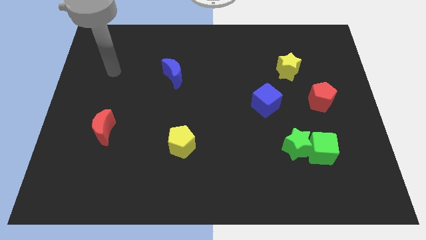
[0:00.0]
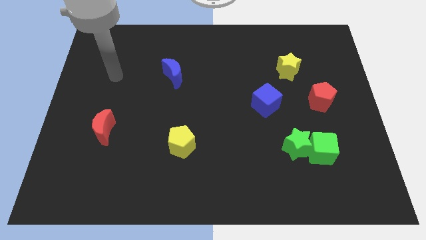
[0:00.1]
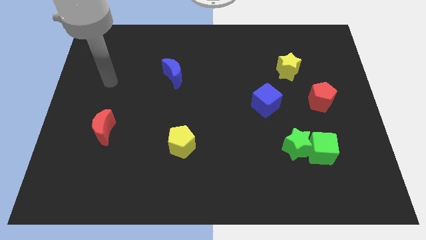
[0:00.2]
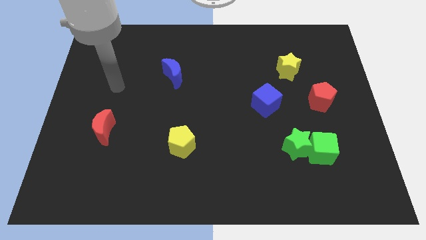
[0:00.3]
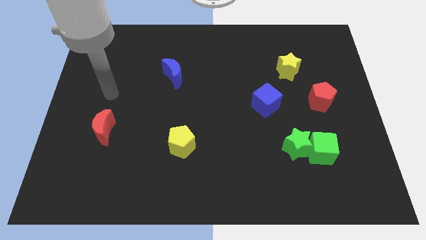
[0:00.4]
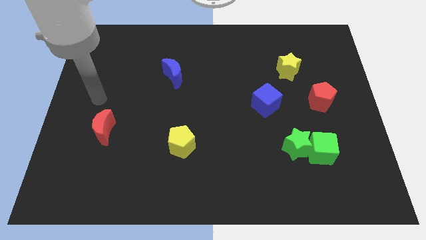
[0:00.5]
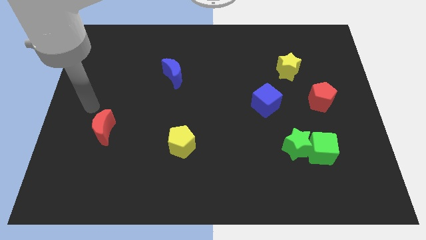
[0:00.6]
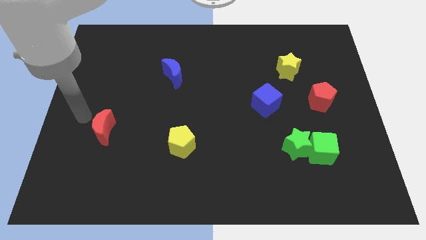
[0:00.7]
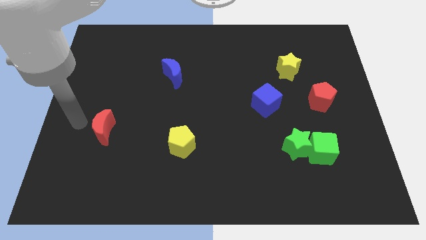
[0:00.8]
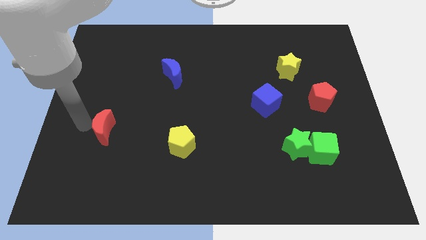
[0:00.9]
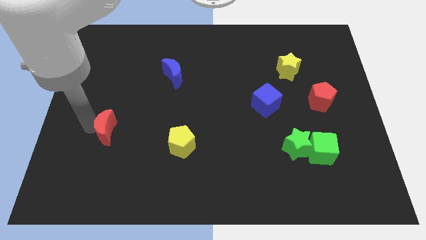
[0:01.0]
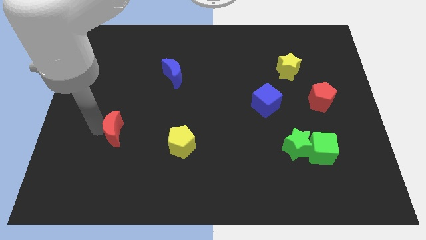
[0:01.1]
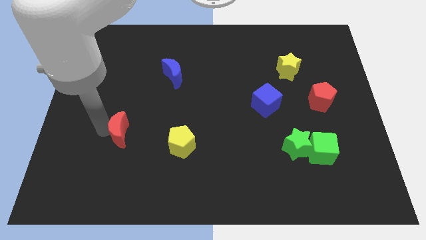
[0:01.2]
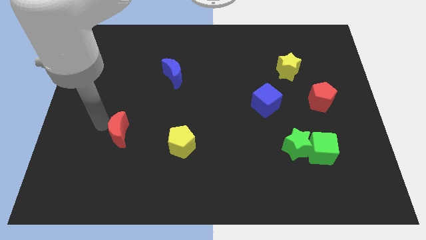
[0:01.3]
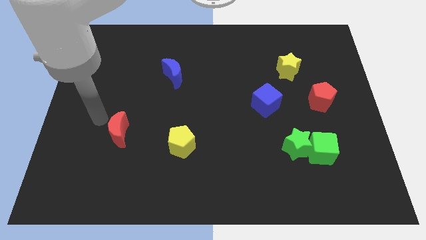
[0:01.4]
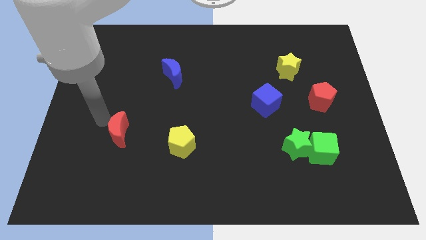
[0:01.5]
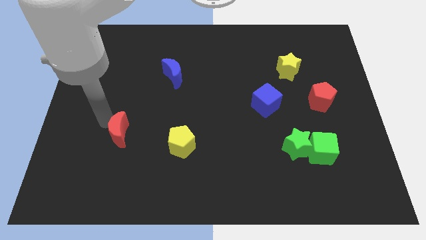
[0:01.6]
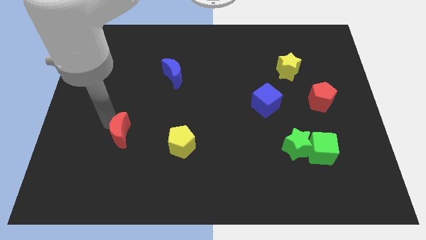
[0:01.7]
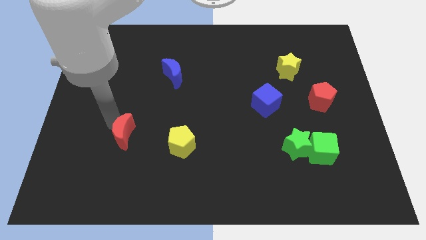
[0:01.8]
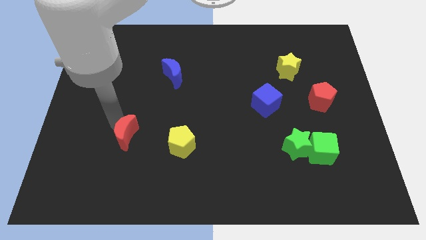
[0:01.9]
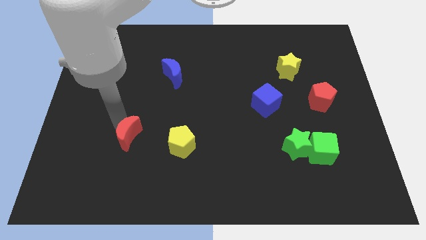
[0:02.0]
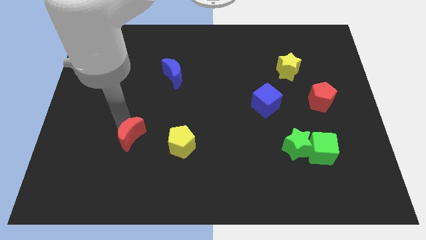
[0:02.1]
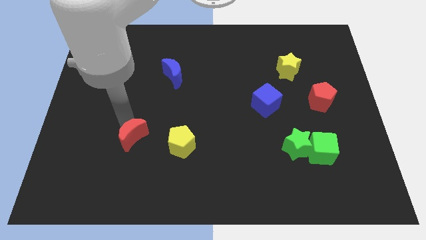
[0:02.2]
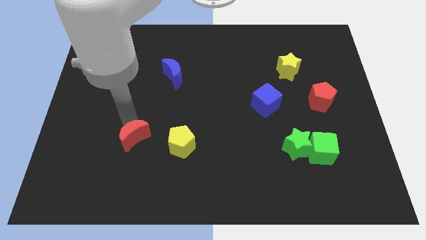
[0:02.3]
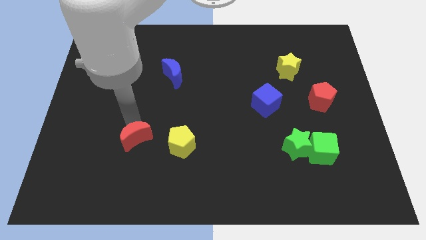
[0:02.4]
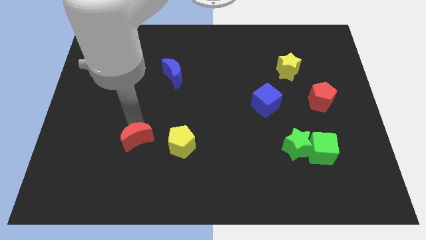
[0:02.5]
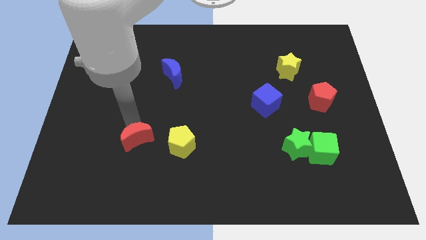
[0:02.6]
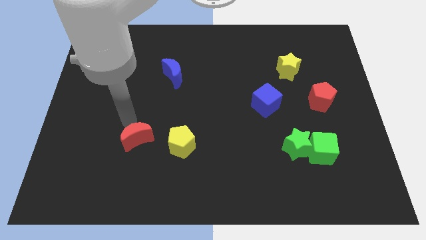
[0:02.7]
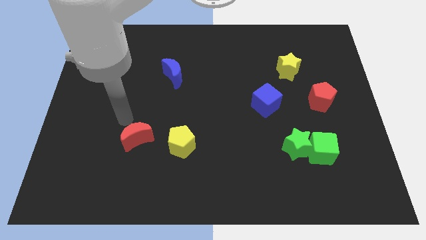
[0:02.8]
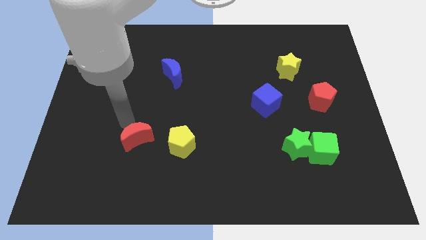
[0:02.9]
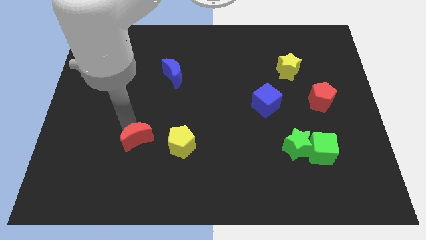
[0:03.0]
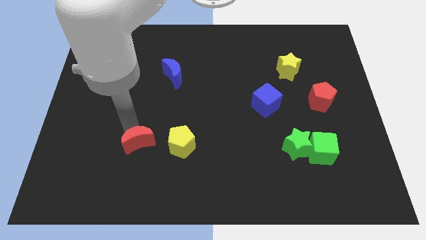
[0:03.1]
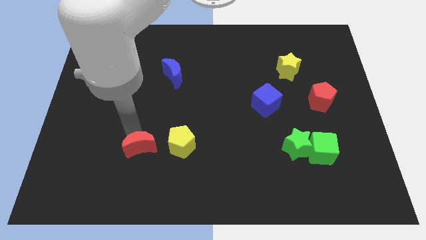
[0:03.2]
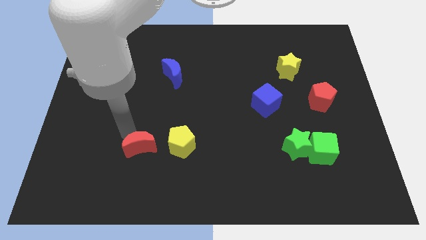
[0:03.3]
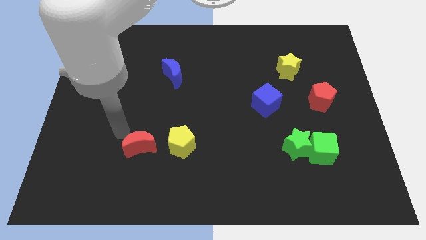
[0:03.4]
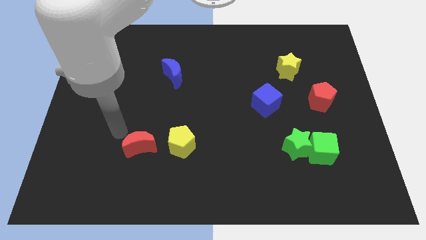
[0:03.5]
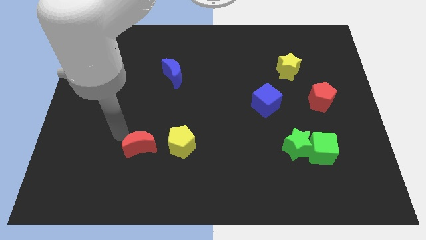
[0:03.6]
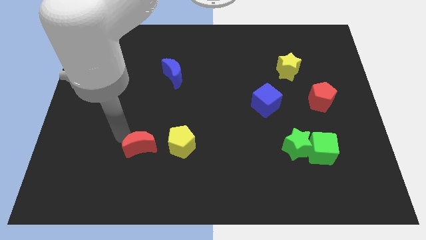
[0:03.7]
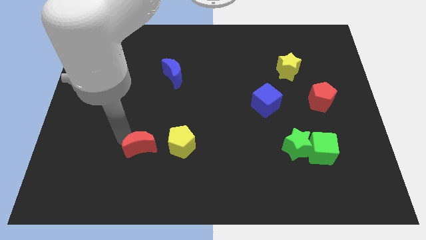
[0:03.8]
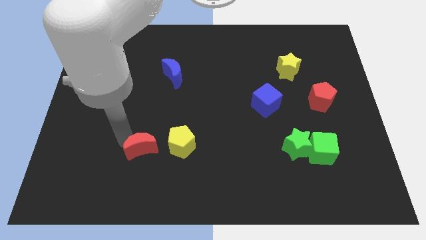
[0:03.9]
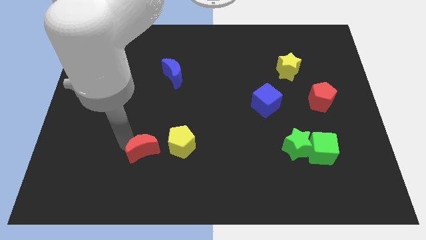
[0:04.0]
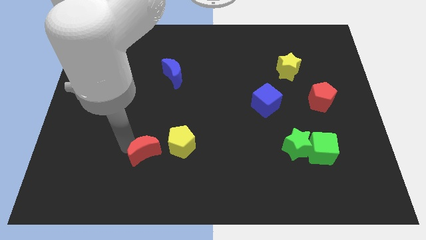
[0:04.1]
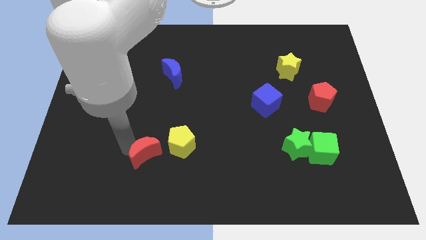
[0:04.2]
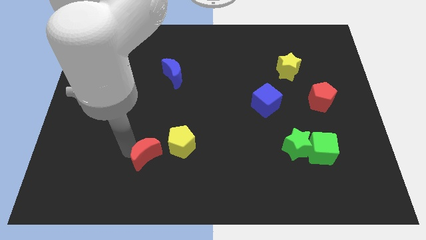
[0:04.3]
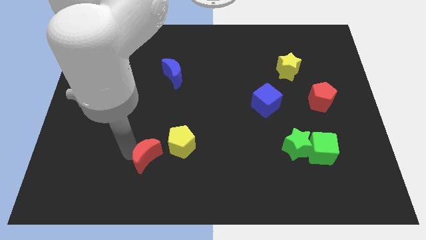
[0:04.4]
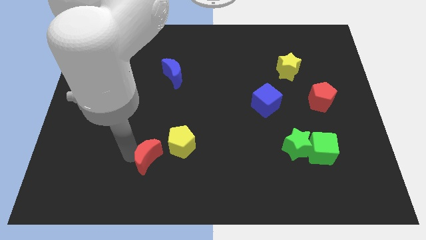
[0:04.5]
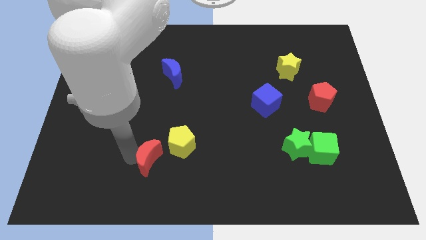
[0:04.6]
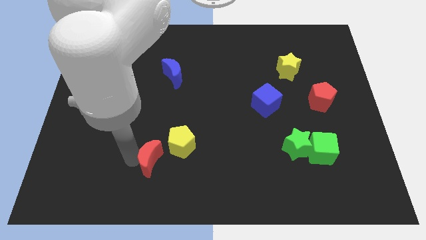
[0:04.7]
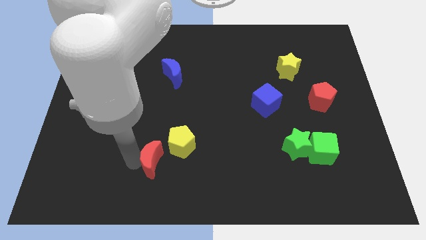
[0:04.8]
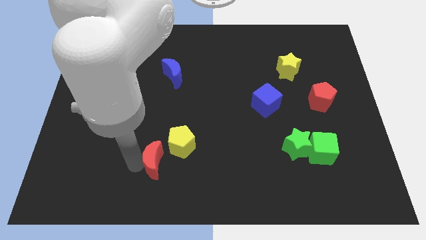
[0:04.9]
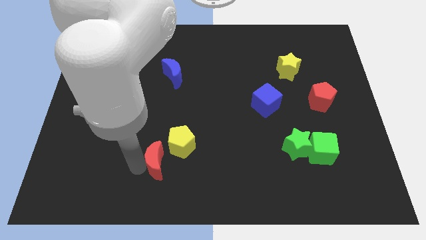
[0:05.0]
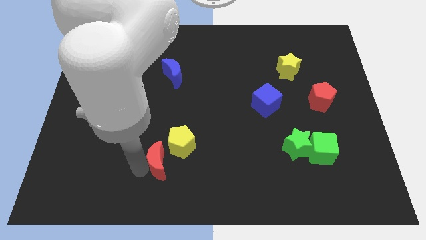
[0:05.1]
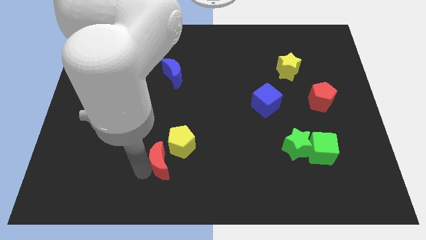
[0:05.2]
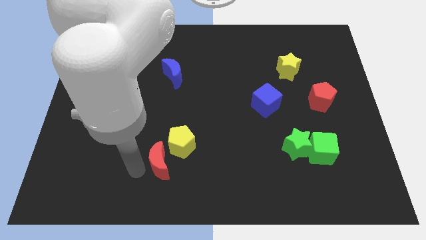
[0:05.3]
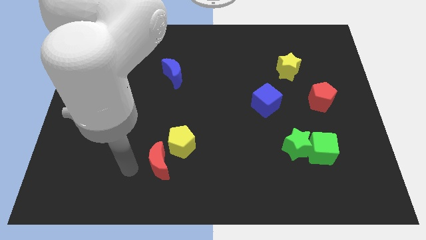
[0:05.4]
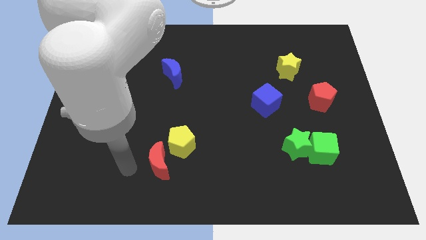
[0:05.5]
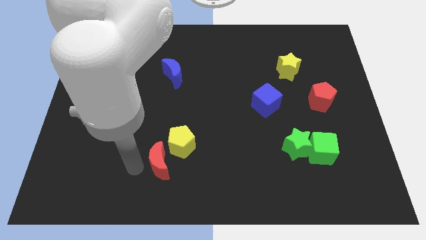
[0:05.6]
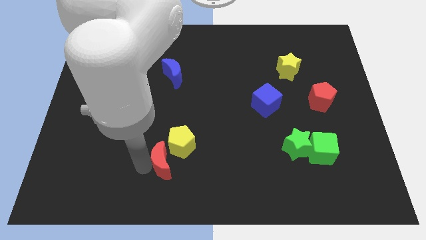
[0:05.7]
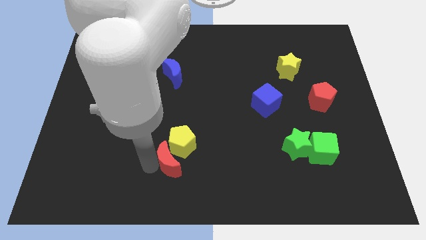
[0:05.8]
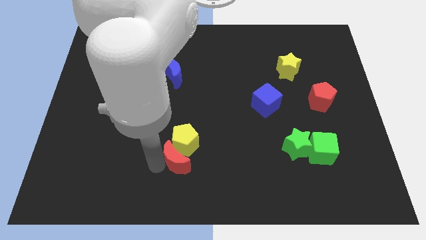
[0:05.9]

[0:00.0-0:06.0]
put the red moon to the bottom right side of the yellow pentagon
